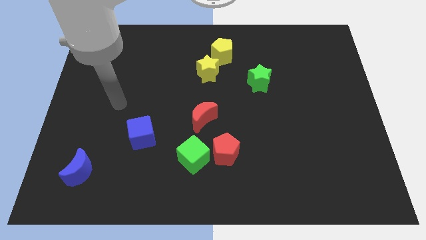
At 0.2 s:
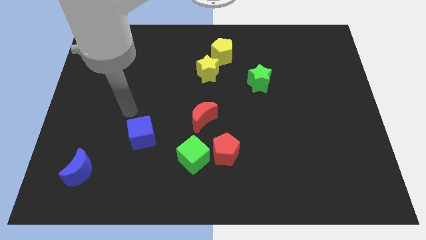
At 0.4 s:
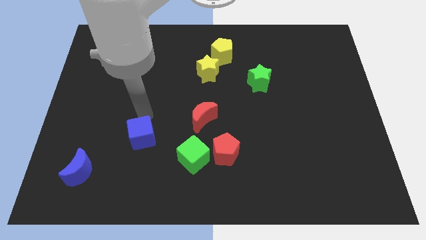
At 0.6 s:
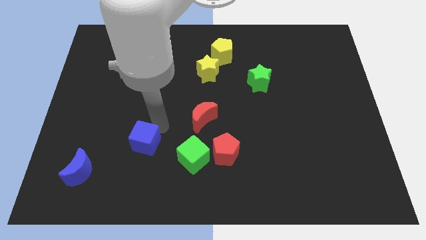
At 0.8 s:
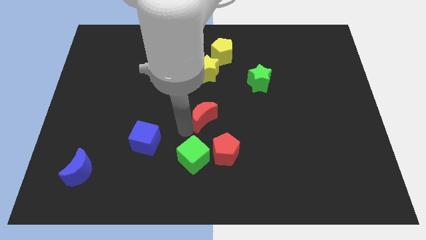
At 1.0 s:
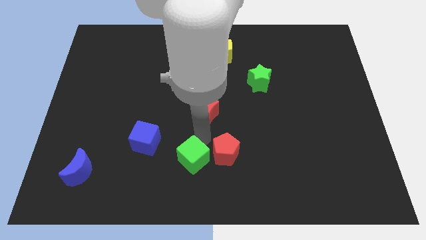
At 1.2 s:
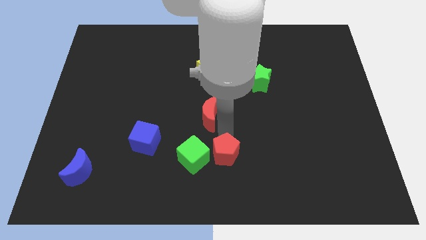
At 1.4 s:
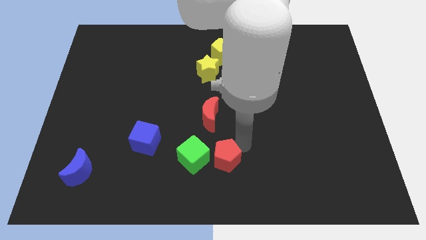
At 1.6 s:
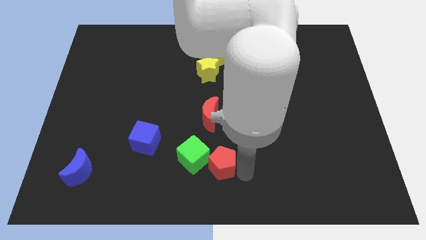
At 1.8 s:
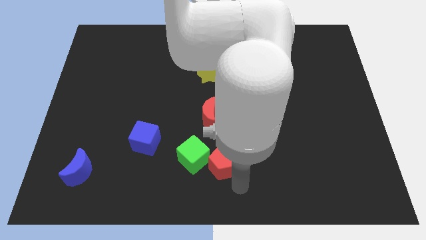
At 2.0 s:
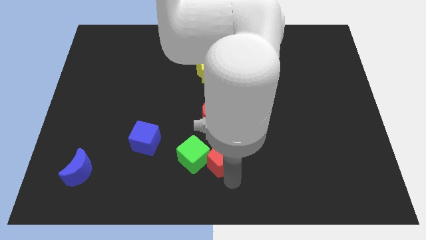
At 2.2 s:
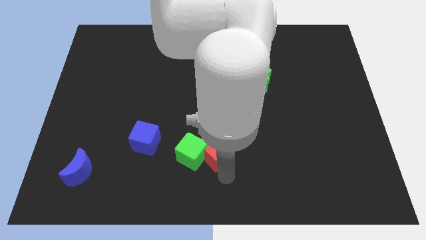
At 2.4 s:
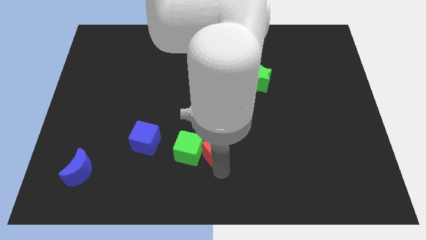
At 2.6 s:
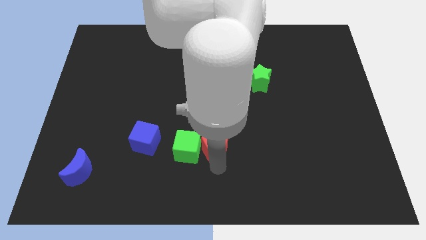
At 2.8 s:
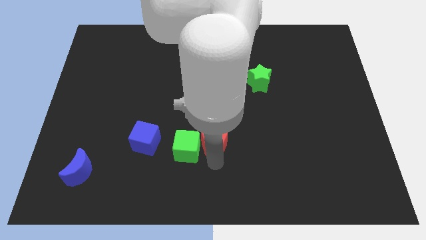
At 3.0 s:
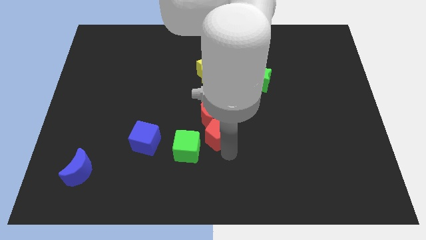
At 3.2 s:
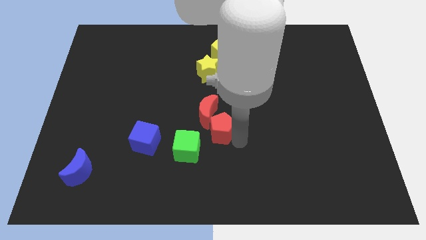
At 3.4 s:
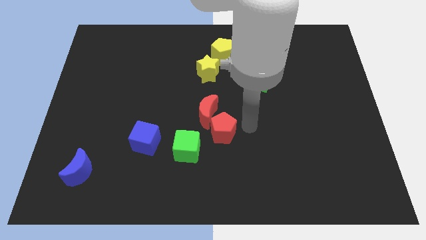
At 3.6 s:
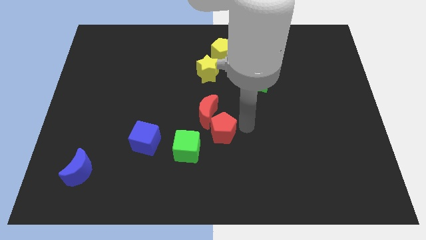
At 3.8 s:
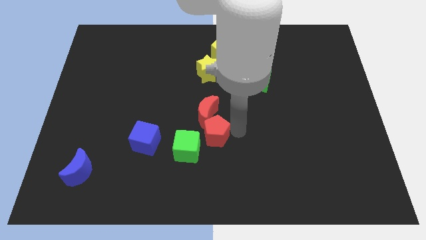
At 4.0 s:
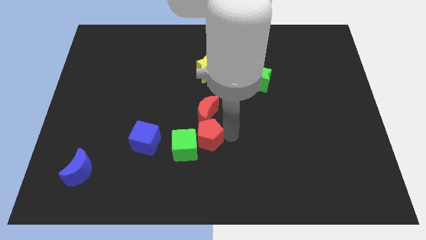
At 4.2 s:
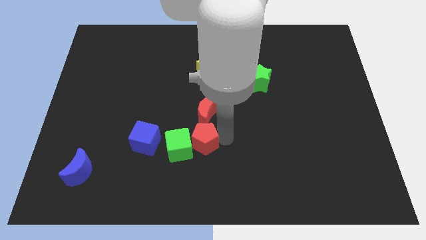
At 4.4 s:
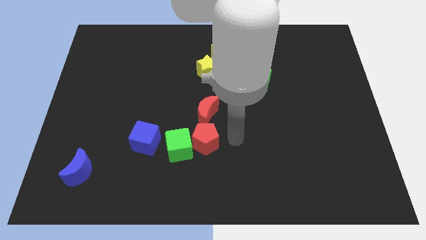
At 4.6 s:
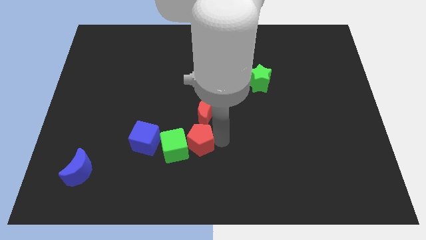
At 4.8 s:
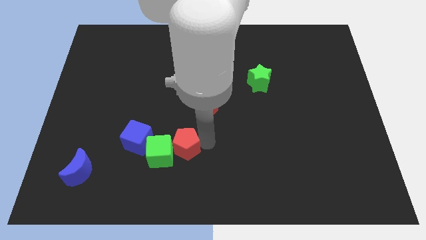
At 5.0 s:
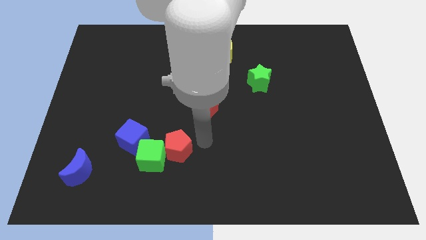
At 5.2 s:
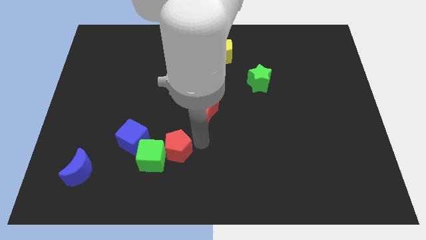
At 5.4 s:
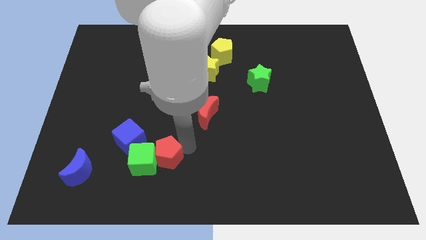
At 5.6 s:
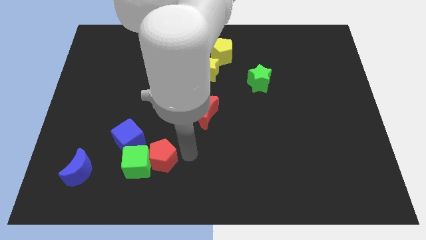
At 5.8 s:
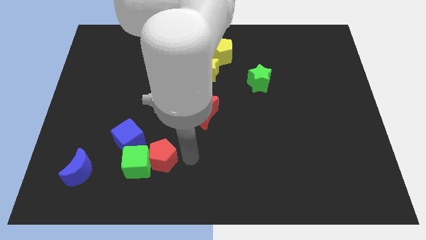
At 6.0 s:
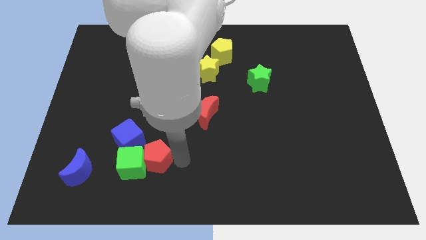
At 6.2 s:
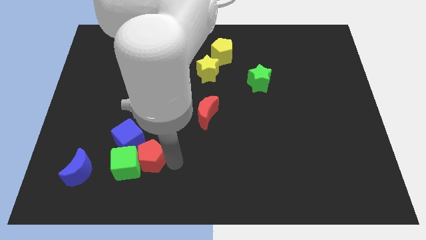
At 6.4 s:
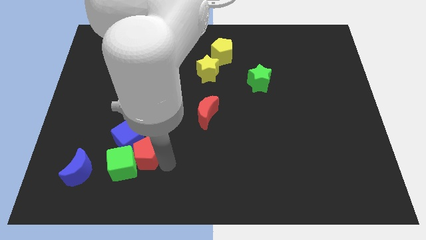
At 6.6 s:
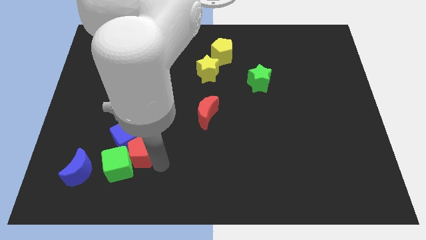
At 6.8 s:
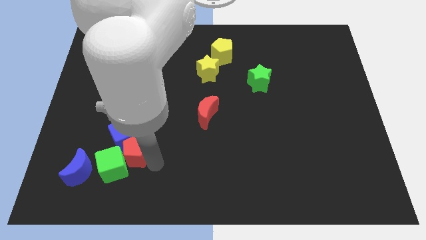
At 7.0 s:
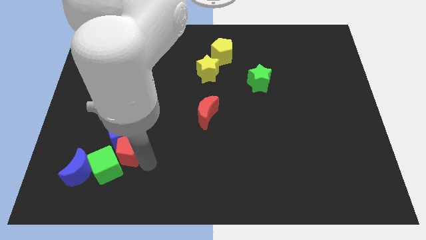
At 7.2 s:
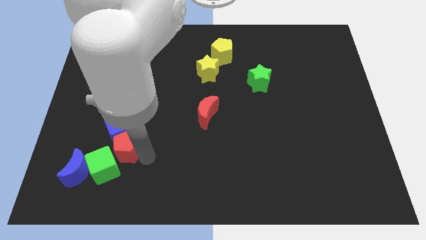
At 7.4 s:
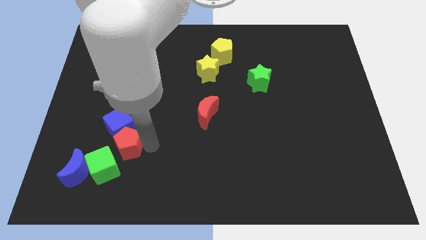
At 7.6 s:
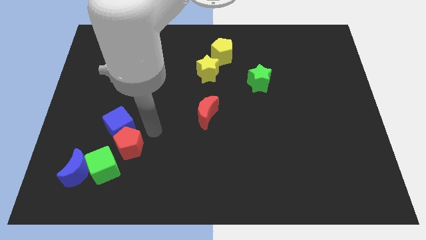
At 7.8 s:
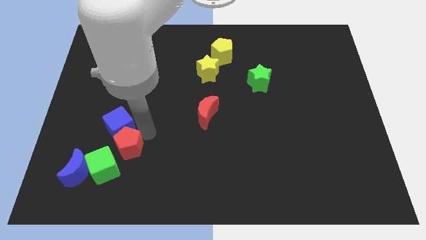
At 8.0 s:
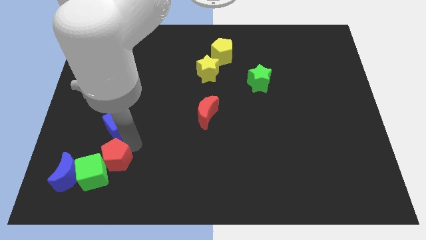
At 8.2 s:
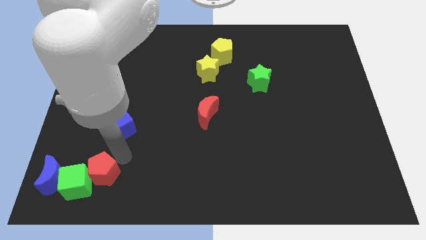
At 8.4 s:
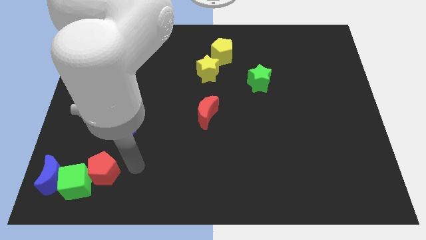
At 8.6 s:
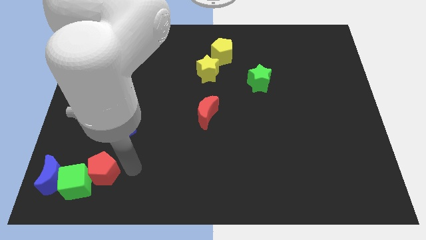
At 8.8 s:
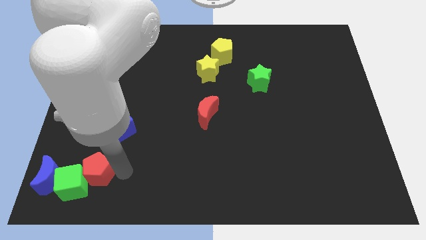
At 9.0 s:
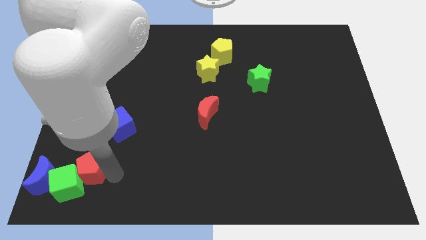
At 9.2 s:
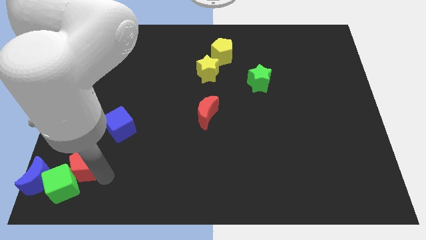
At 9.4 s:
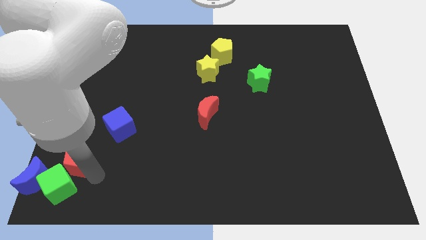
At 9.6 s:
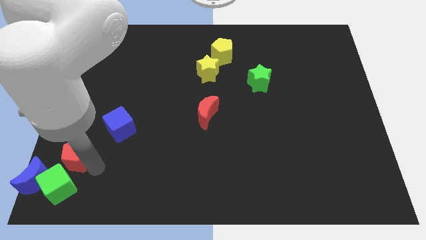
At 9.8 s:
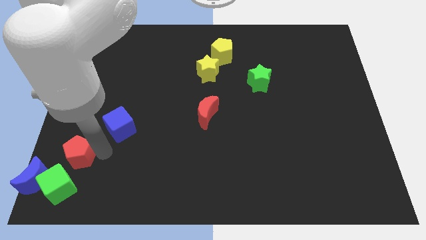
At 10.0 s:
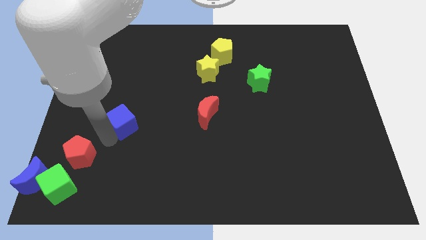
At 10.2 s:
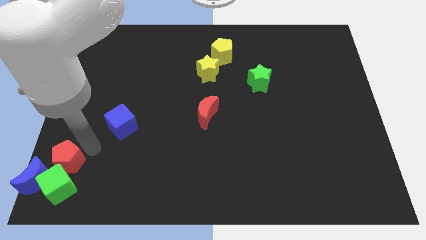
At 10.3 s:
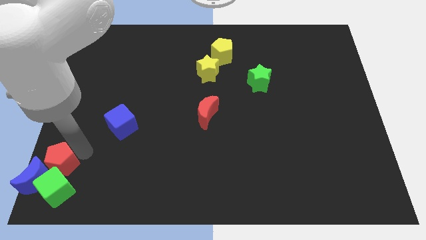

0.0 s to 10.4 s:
push the red pentagon next to the blue moon

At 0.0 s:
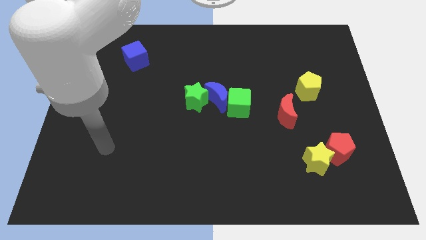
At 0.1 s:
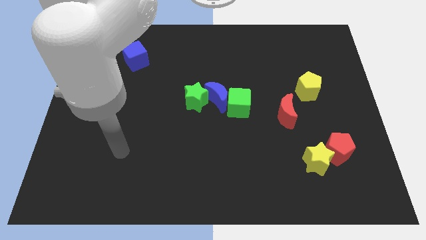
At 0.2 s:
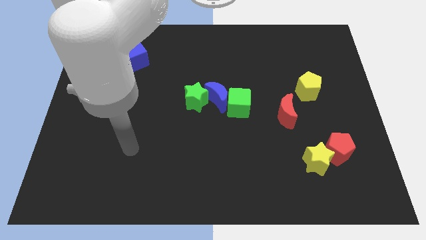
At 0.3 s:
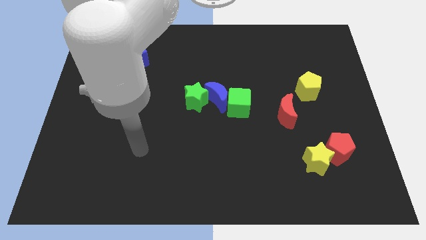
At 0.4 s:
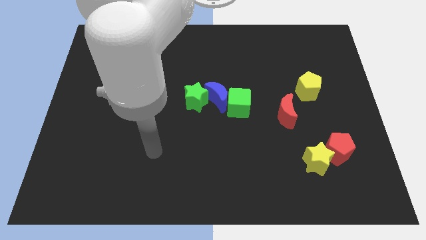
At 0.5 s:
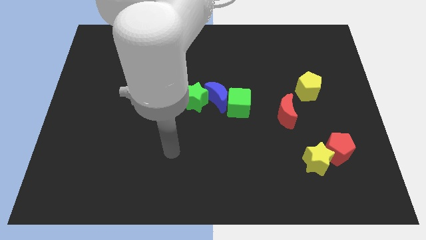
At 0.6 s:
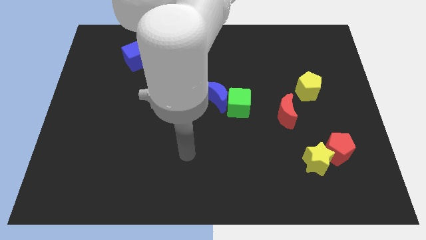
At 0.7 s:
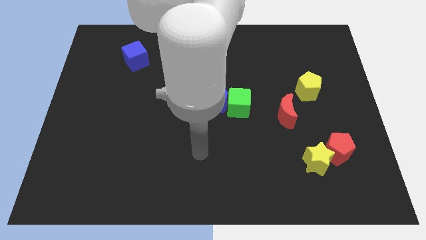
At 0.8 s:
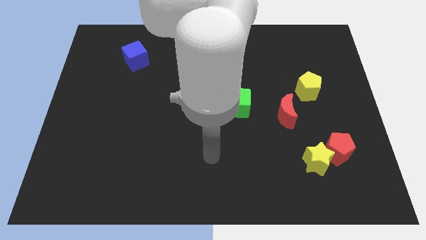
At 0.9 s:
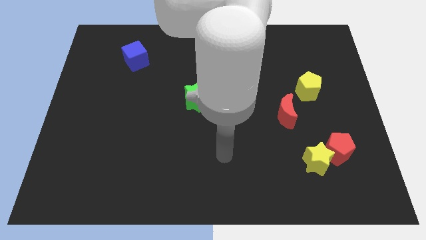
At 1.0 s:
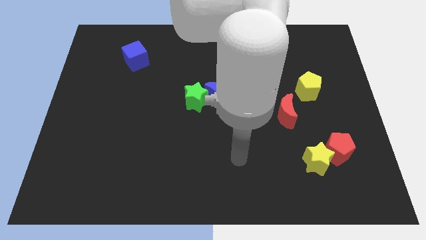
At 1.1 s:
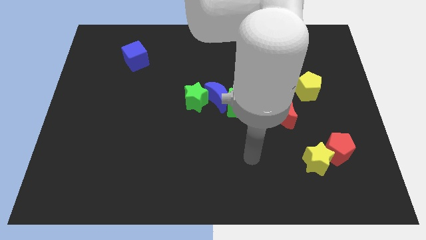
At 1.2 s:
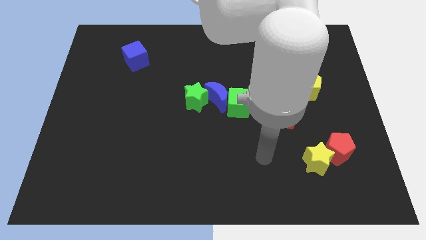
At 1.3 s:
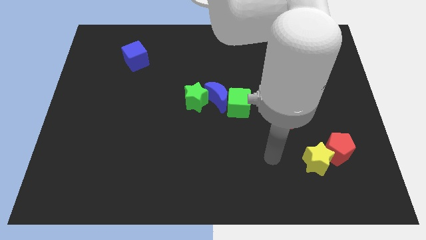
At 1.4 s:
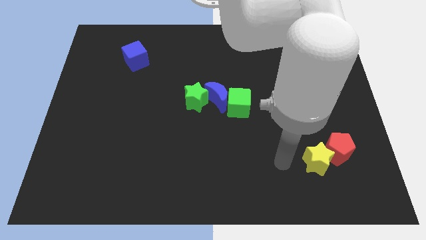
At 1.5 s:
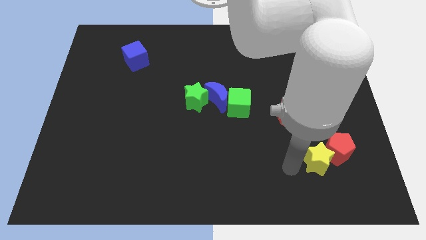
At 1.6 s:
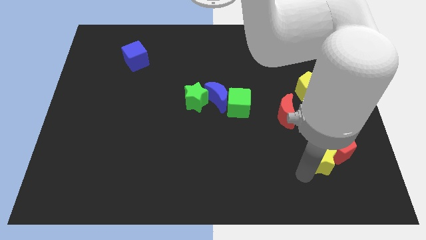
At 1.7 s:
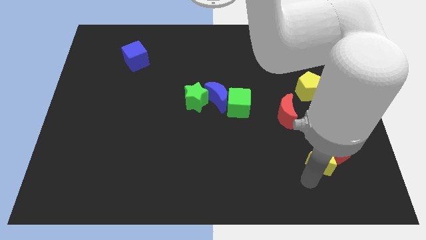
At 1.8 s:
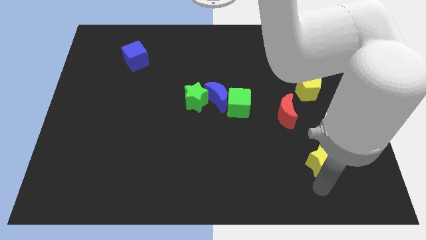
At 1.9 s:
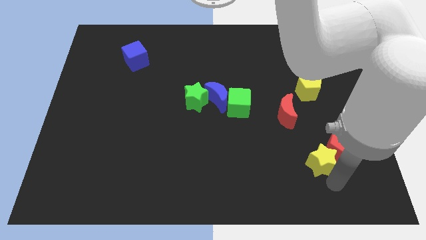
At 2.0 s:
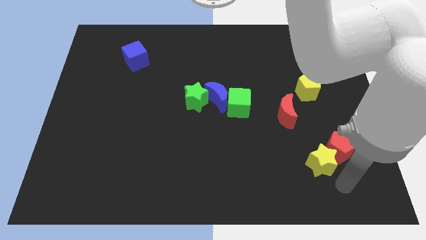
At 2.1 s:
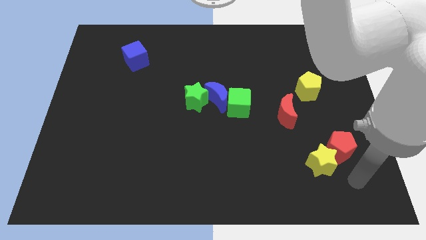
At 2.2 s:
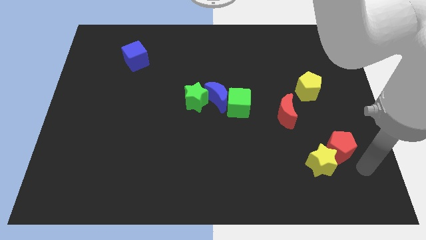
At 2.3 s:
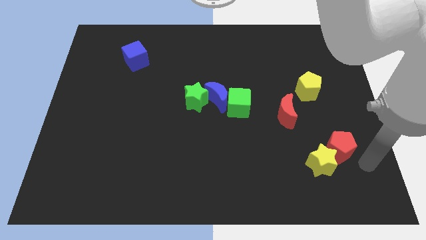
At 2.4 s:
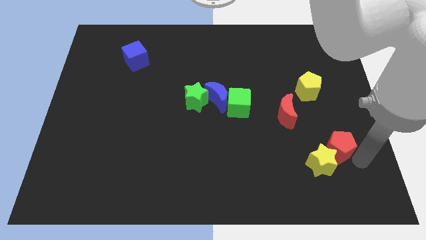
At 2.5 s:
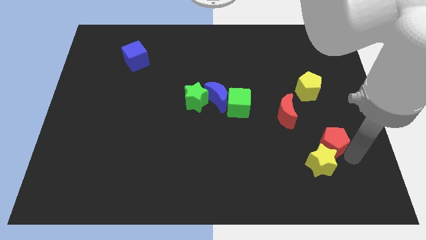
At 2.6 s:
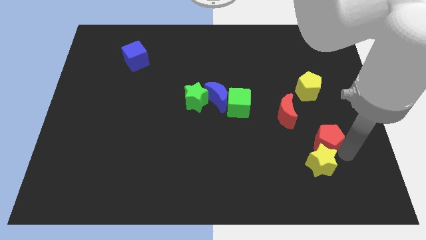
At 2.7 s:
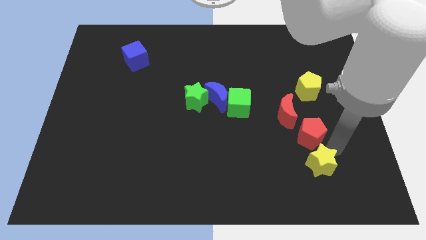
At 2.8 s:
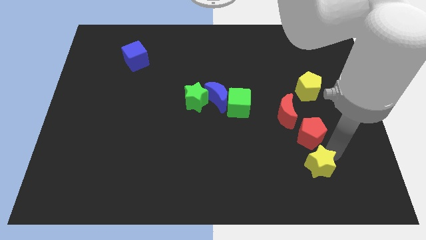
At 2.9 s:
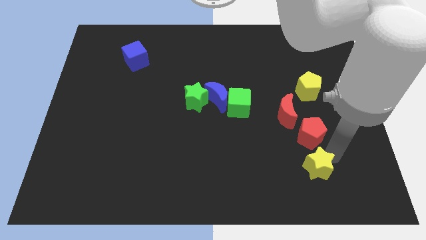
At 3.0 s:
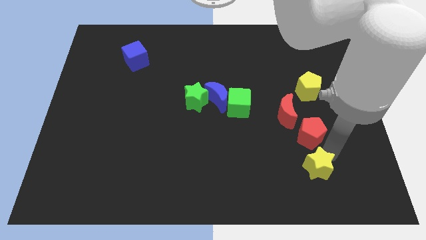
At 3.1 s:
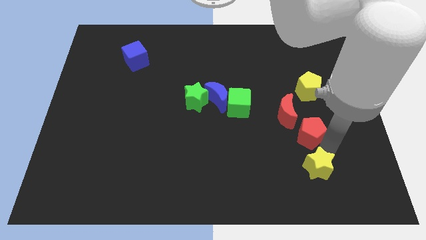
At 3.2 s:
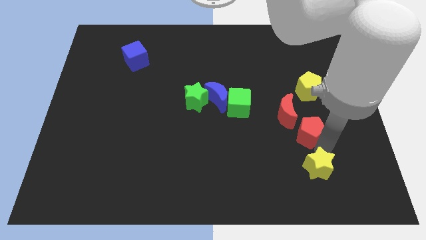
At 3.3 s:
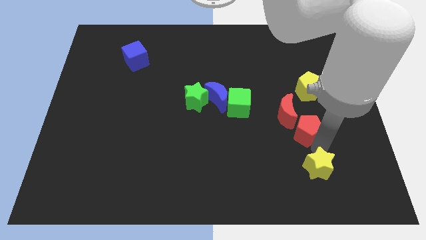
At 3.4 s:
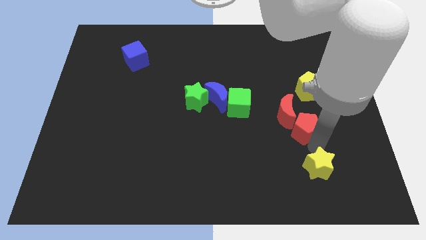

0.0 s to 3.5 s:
move the red pentagon close to the red moon
